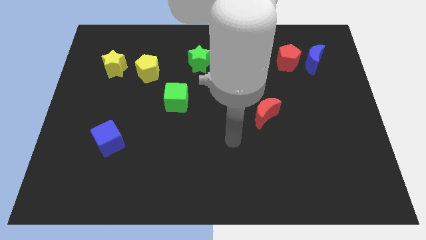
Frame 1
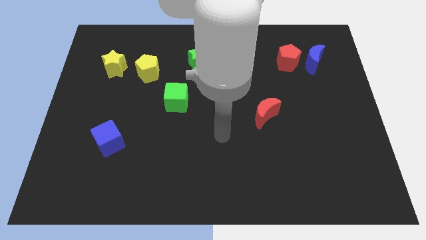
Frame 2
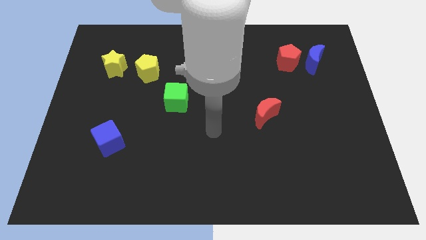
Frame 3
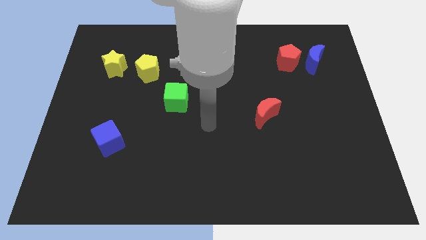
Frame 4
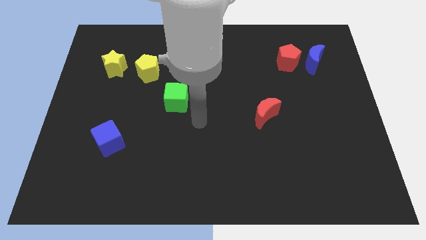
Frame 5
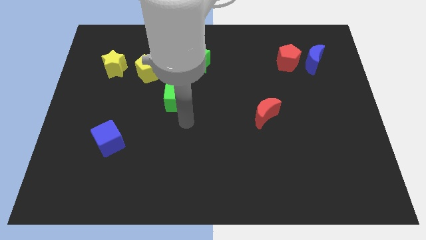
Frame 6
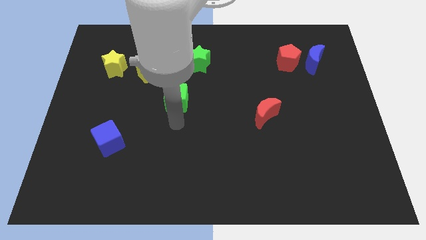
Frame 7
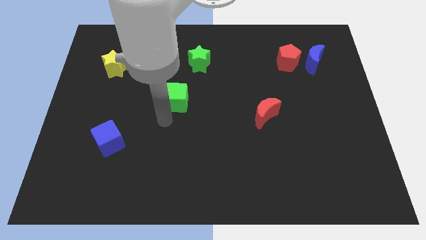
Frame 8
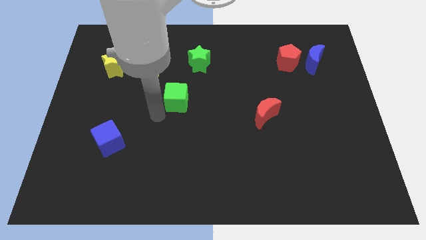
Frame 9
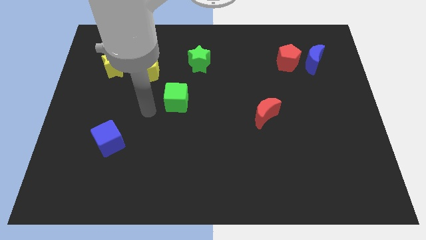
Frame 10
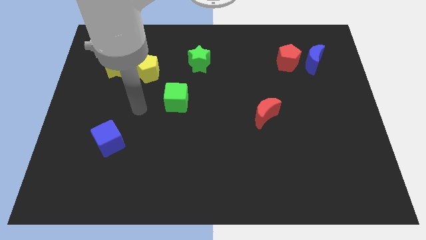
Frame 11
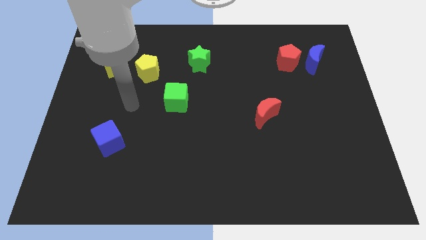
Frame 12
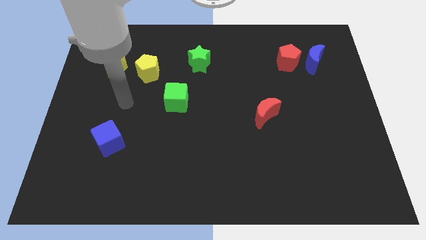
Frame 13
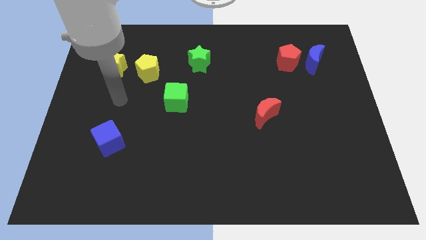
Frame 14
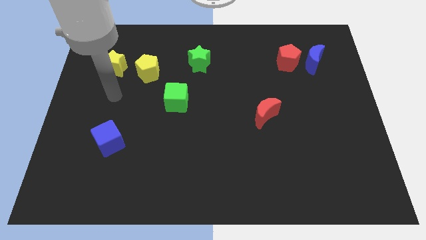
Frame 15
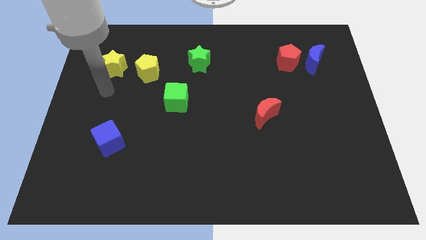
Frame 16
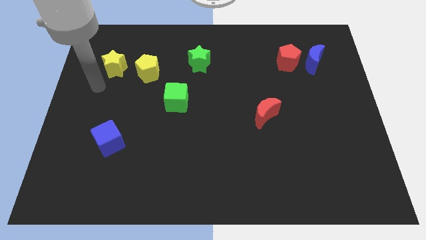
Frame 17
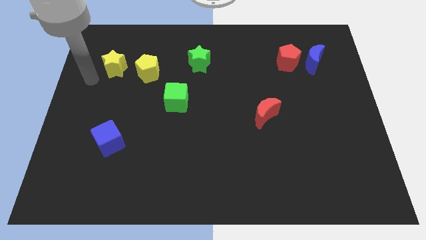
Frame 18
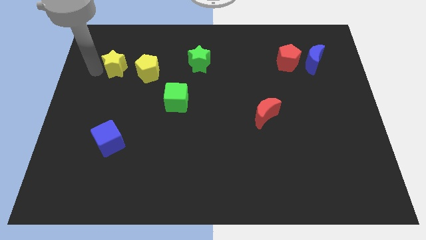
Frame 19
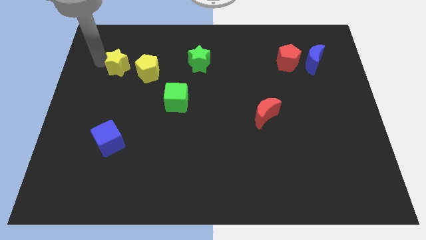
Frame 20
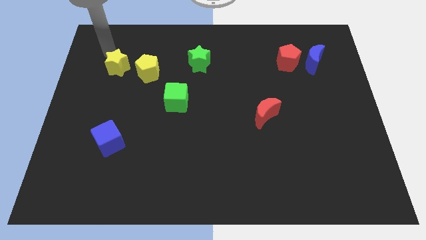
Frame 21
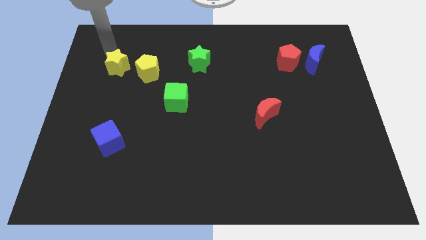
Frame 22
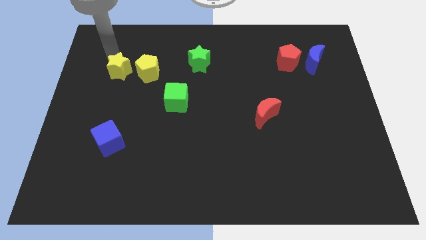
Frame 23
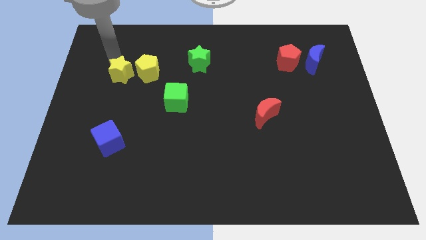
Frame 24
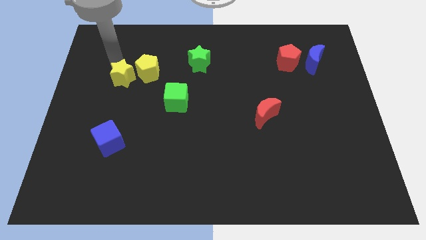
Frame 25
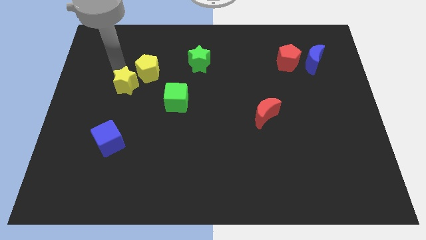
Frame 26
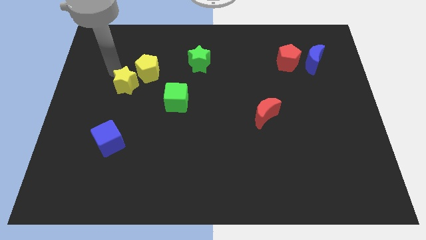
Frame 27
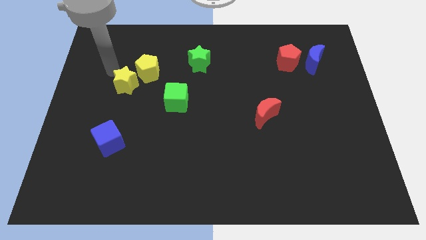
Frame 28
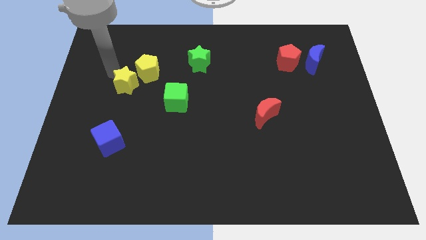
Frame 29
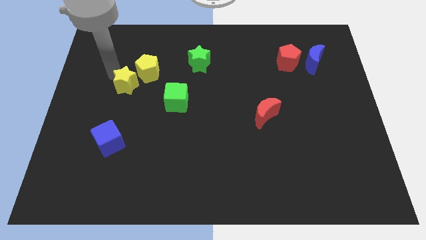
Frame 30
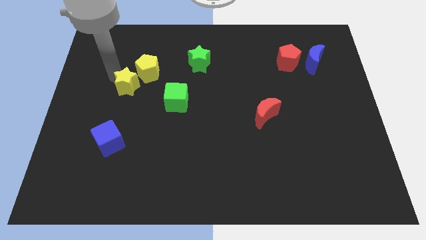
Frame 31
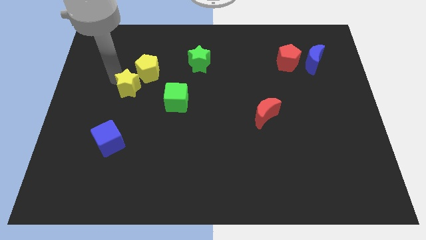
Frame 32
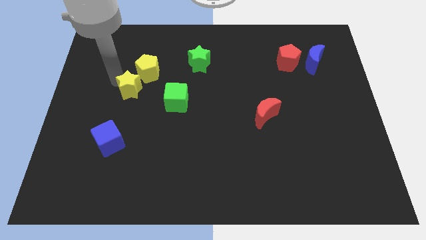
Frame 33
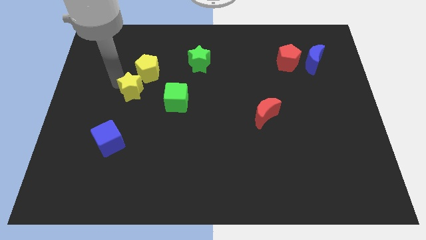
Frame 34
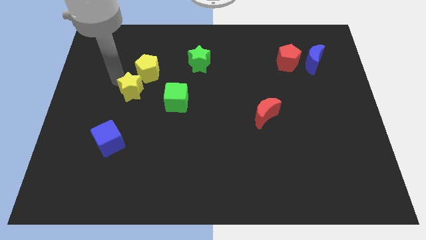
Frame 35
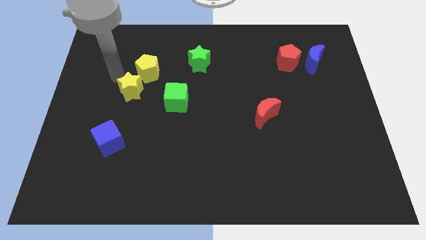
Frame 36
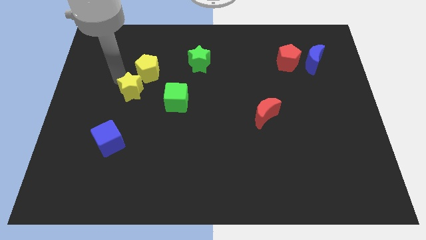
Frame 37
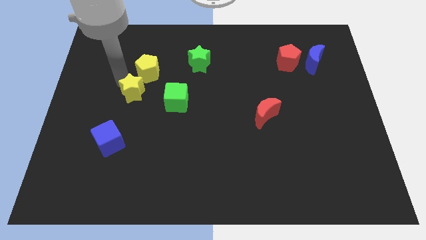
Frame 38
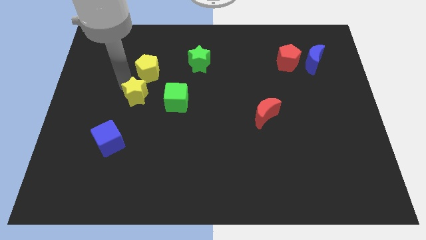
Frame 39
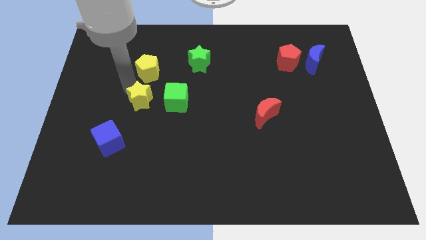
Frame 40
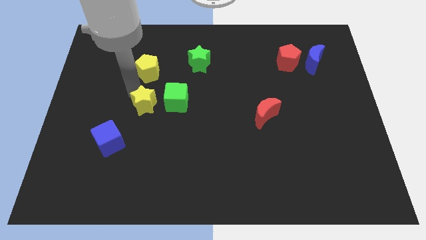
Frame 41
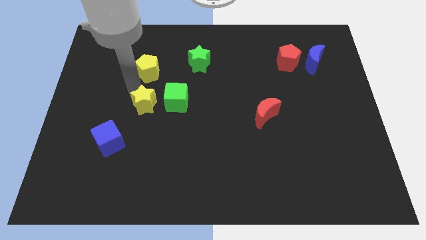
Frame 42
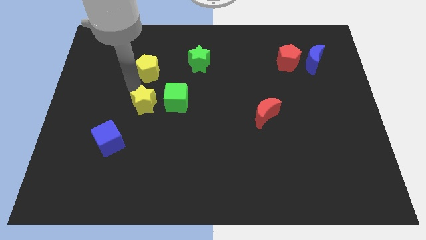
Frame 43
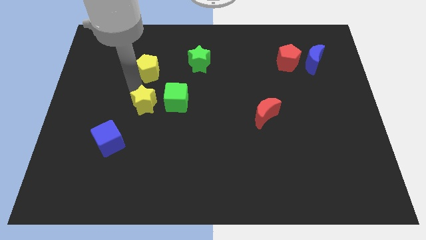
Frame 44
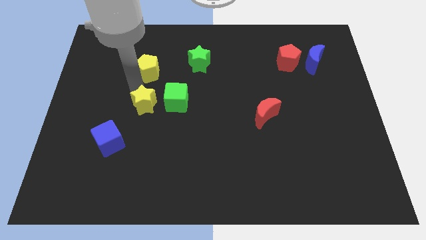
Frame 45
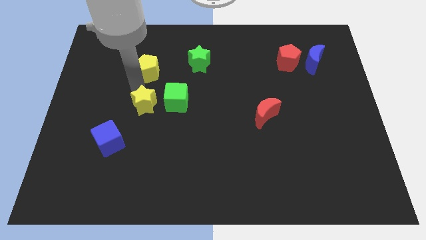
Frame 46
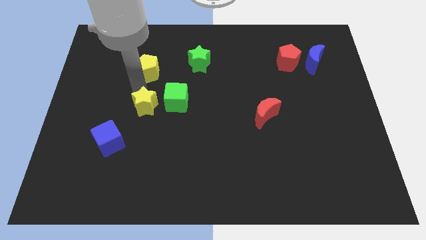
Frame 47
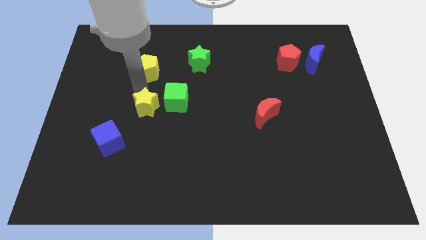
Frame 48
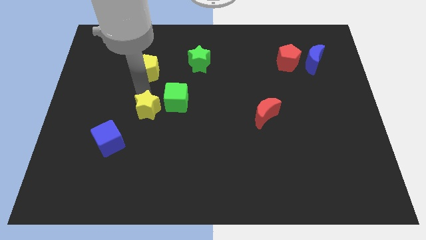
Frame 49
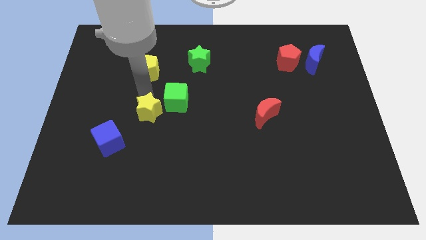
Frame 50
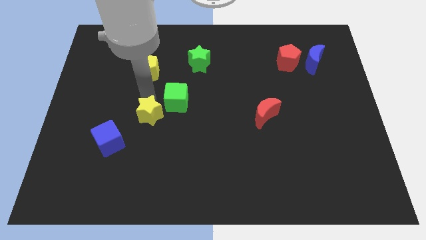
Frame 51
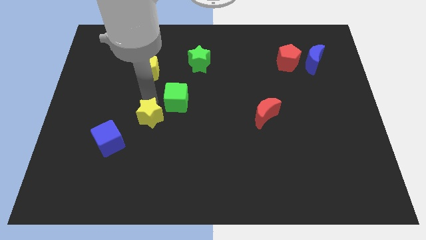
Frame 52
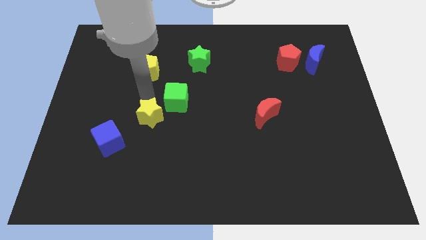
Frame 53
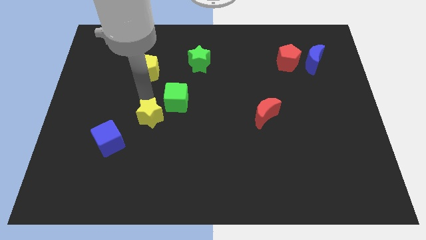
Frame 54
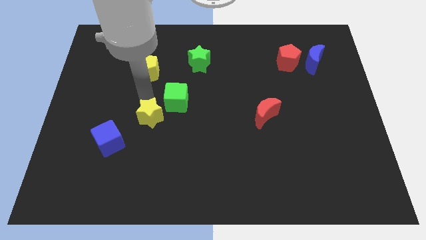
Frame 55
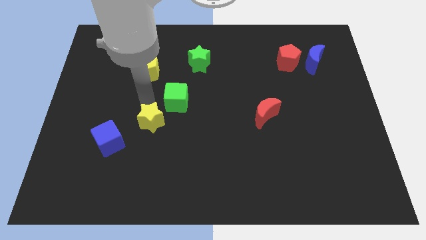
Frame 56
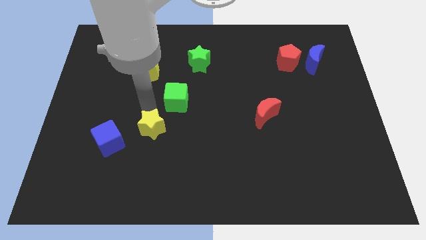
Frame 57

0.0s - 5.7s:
move the yellow star to the right of the blue cube

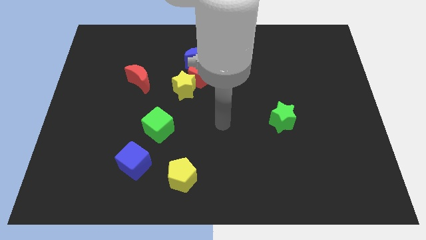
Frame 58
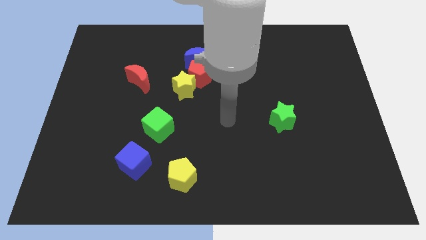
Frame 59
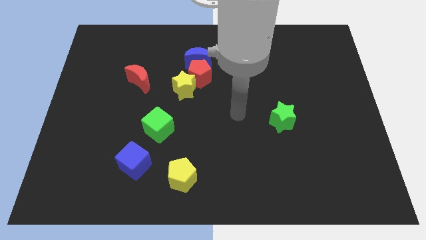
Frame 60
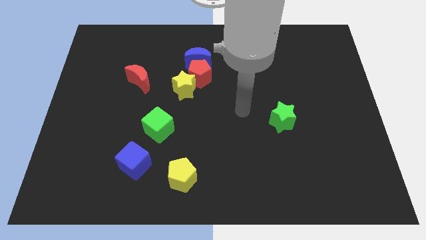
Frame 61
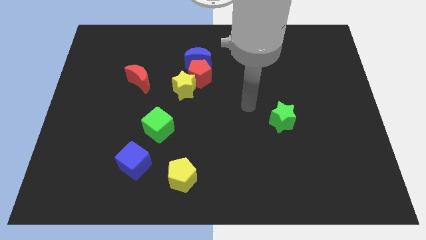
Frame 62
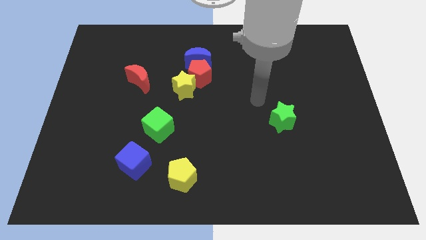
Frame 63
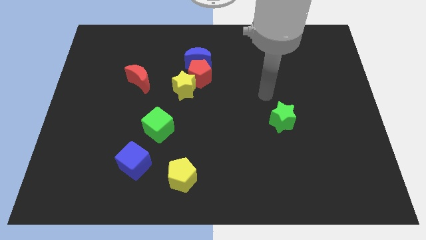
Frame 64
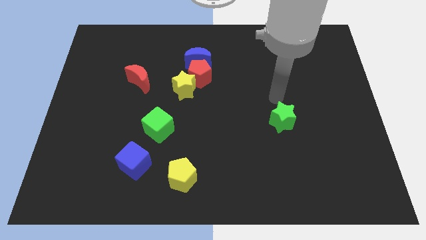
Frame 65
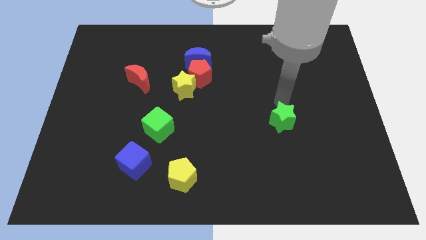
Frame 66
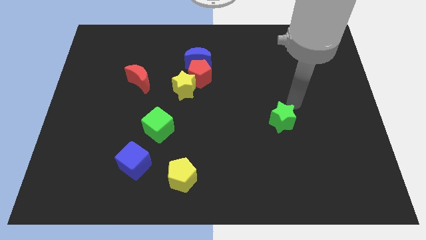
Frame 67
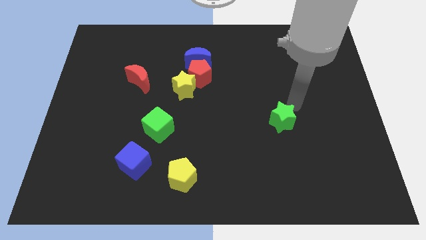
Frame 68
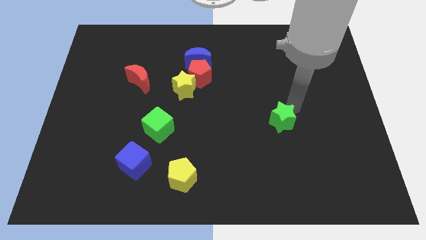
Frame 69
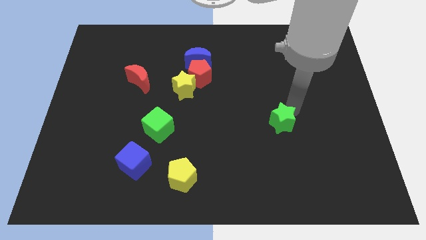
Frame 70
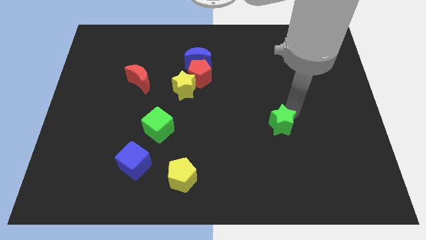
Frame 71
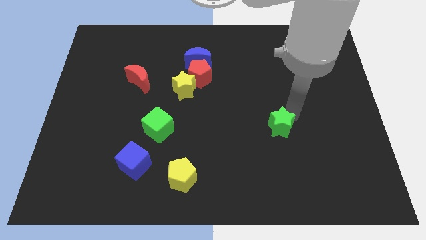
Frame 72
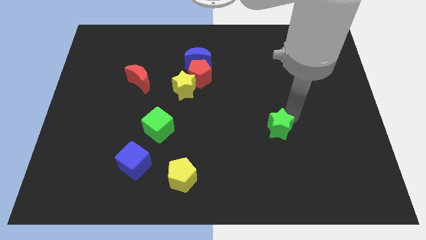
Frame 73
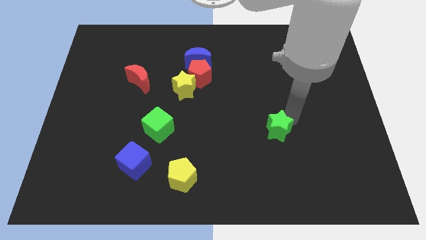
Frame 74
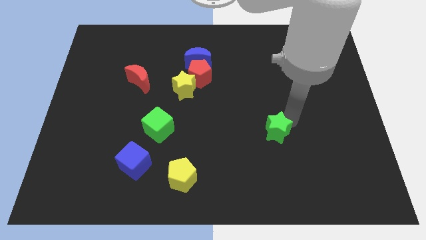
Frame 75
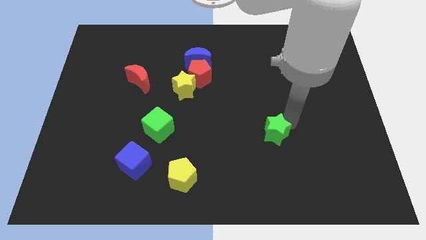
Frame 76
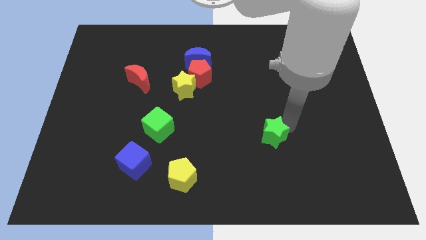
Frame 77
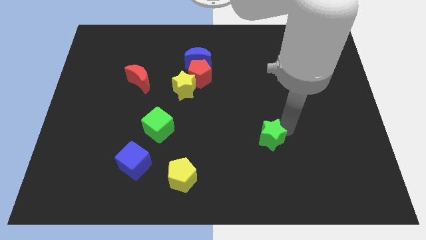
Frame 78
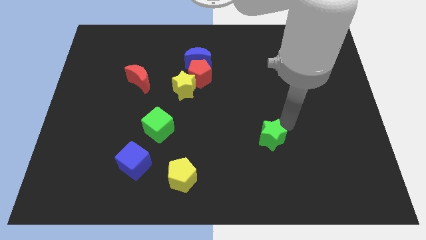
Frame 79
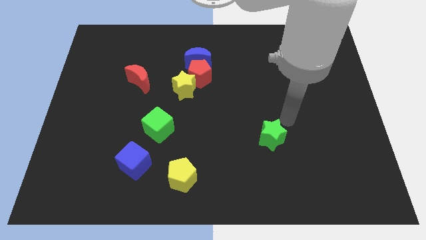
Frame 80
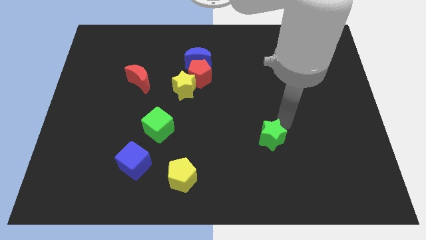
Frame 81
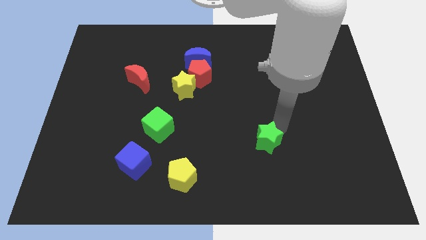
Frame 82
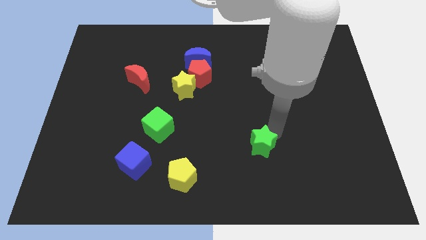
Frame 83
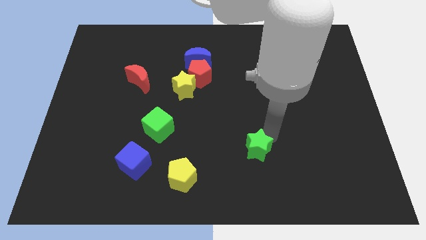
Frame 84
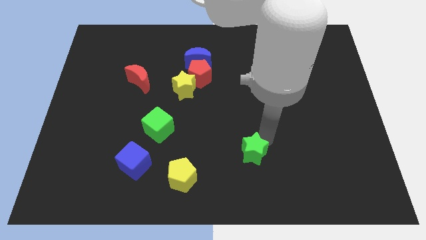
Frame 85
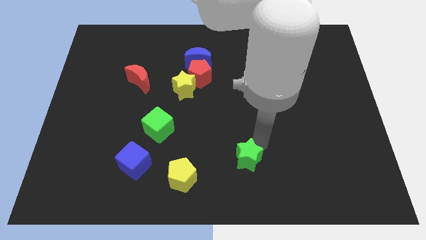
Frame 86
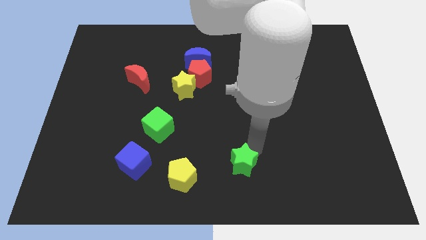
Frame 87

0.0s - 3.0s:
put the green star to the right side of the yellow pentagon
